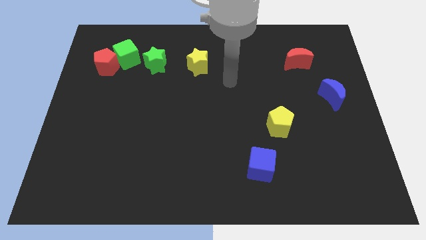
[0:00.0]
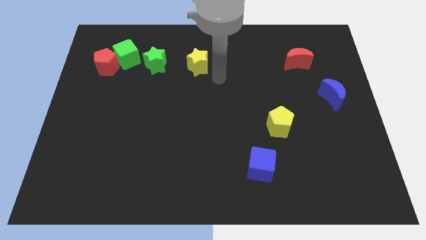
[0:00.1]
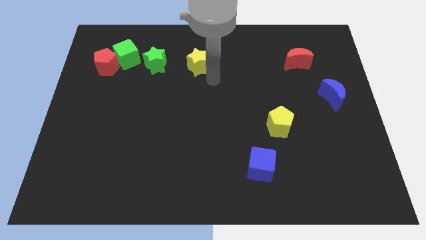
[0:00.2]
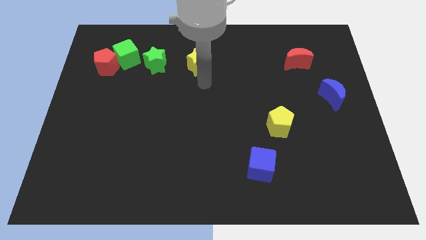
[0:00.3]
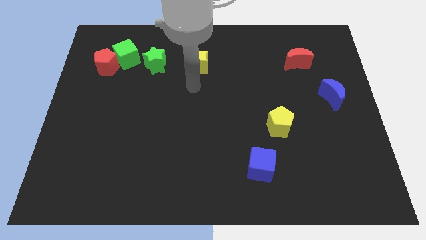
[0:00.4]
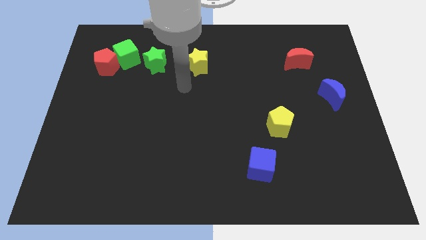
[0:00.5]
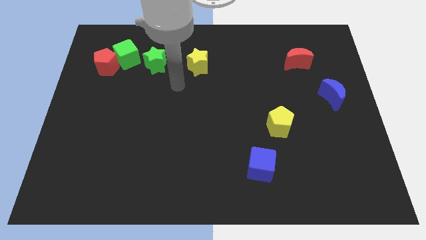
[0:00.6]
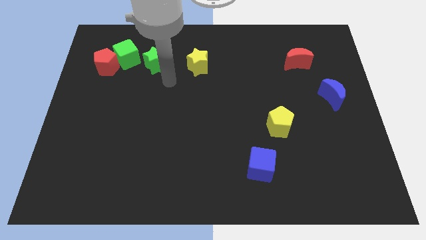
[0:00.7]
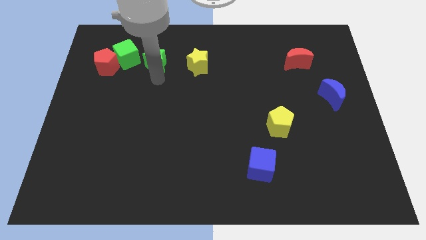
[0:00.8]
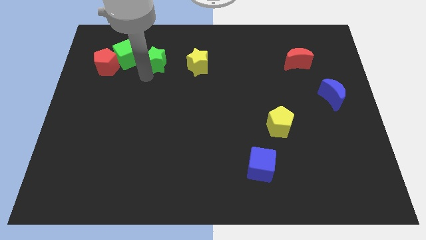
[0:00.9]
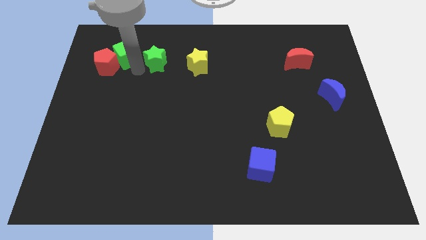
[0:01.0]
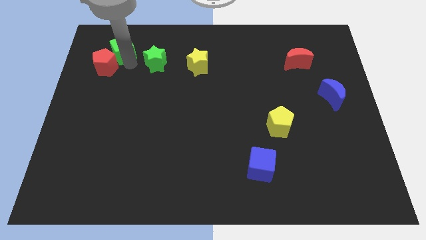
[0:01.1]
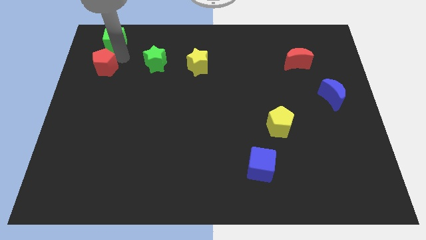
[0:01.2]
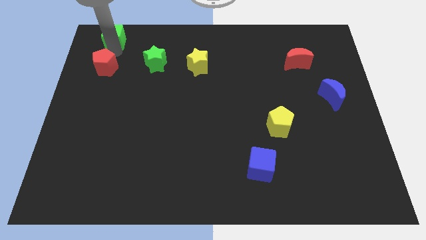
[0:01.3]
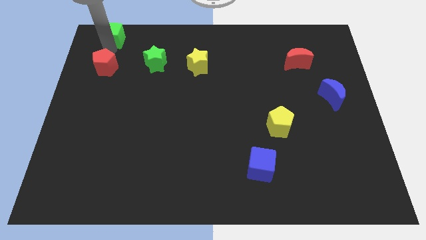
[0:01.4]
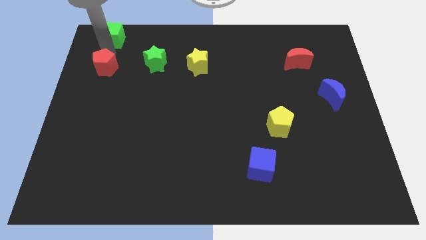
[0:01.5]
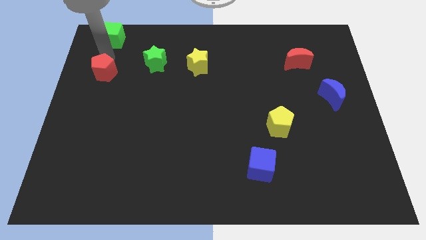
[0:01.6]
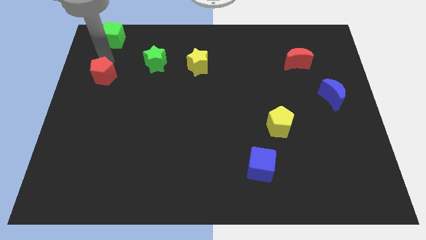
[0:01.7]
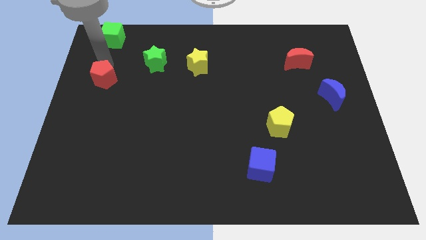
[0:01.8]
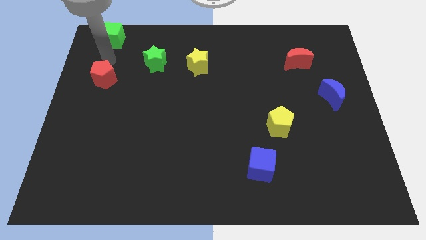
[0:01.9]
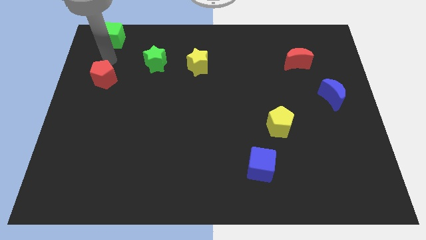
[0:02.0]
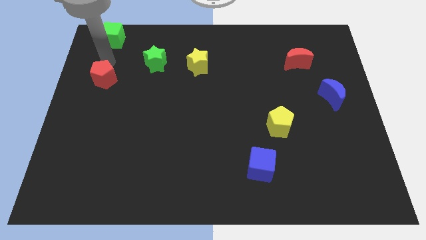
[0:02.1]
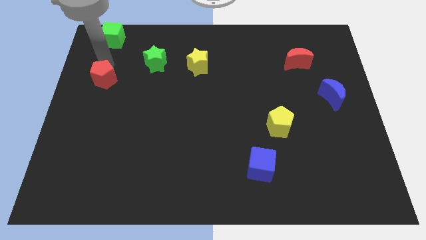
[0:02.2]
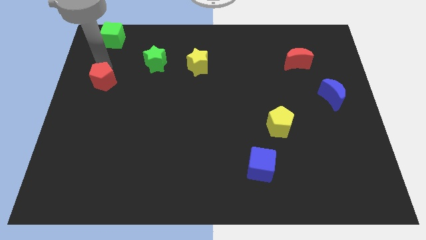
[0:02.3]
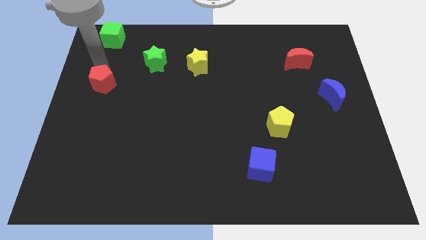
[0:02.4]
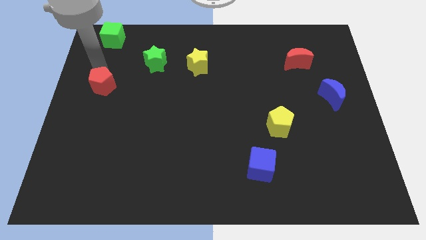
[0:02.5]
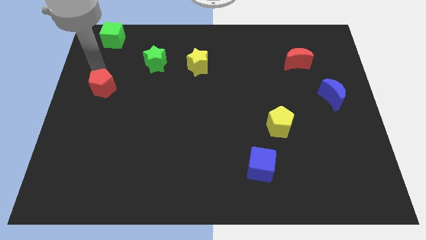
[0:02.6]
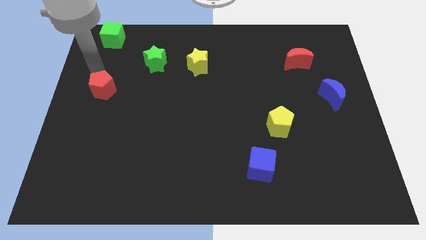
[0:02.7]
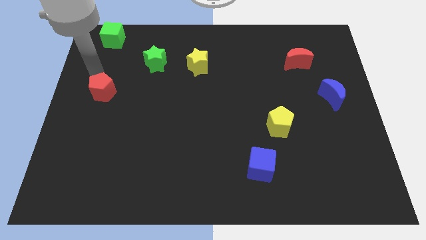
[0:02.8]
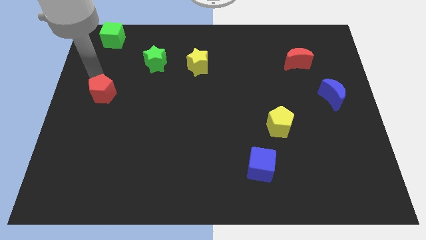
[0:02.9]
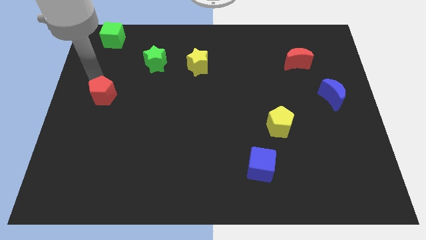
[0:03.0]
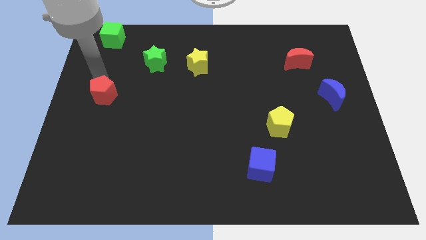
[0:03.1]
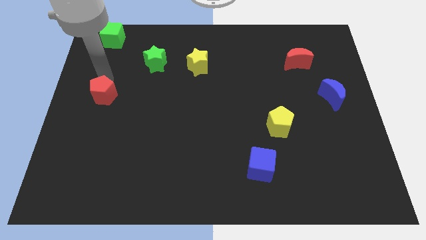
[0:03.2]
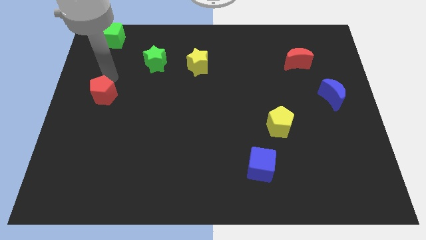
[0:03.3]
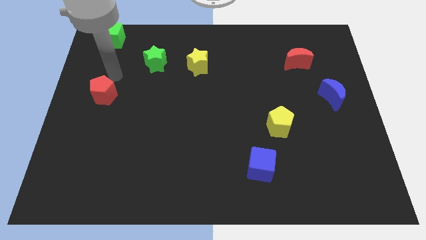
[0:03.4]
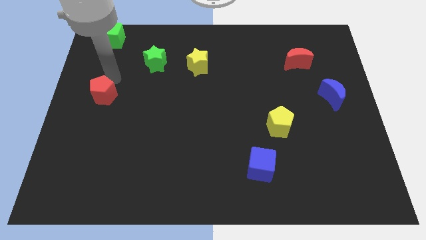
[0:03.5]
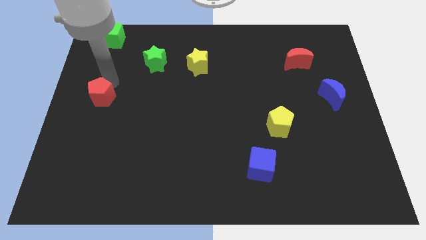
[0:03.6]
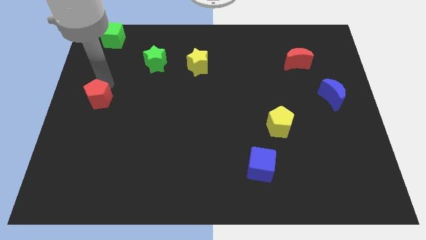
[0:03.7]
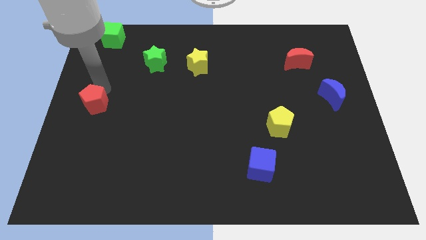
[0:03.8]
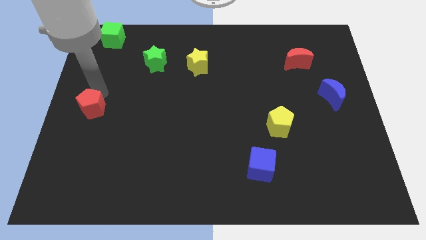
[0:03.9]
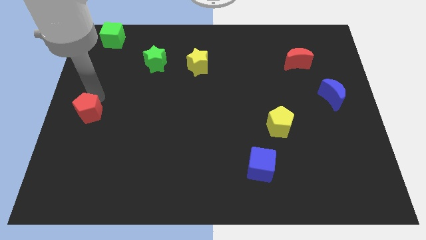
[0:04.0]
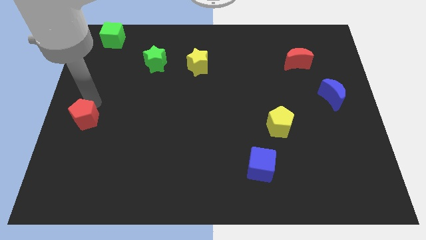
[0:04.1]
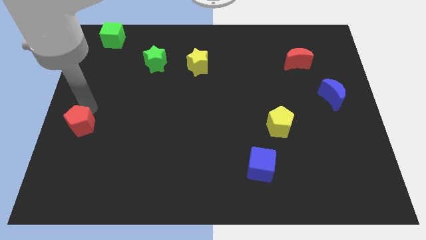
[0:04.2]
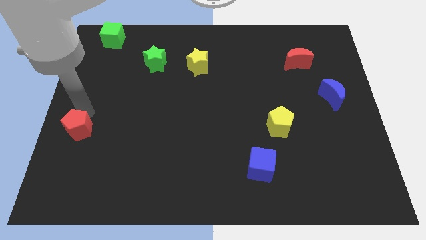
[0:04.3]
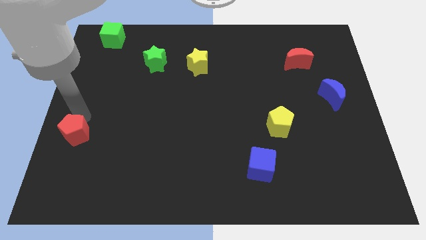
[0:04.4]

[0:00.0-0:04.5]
push the red pentagon down

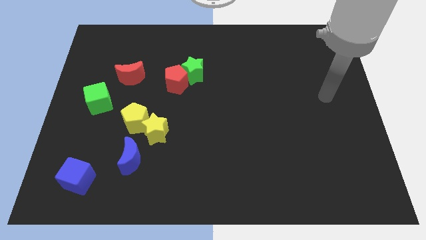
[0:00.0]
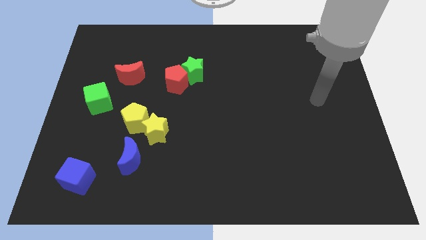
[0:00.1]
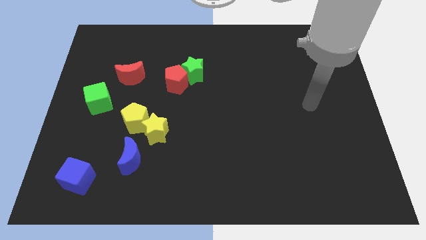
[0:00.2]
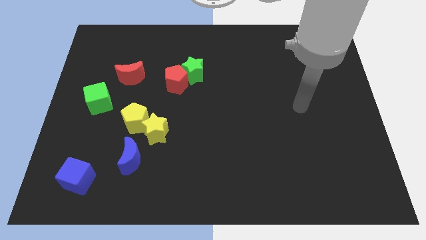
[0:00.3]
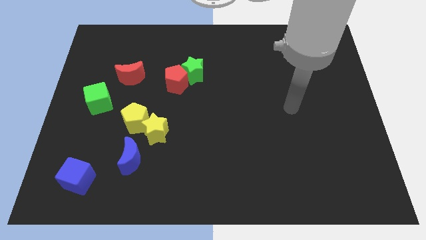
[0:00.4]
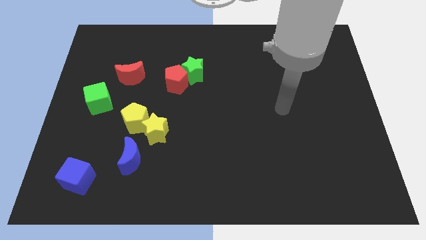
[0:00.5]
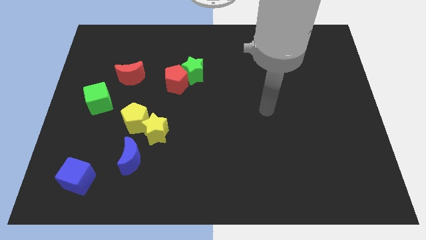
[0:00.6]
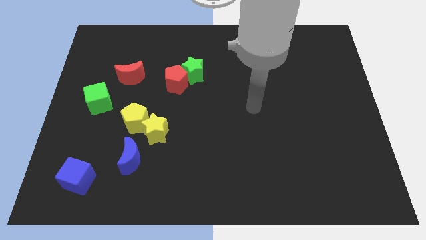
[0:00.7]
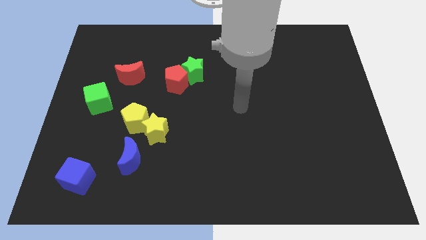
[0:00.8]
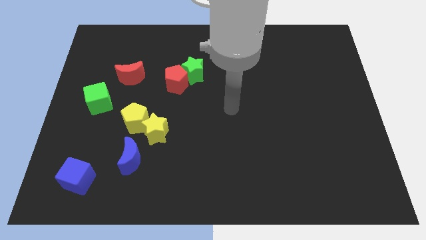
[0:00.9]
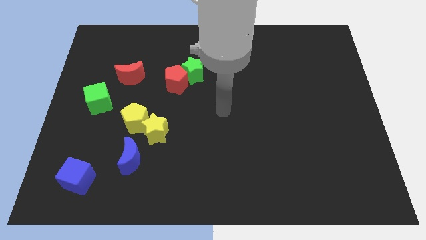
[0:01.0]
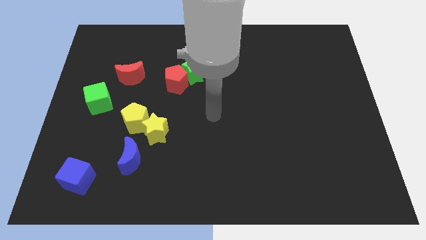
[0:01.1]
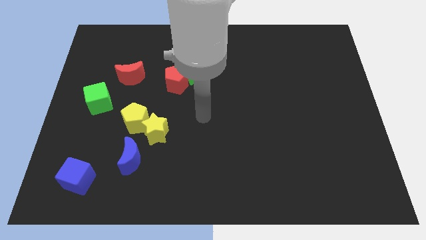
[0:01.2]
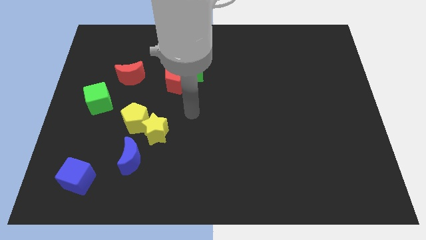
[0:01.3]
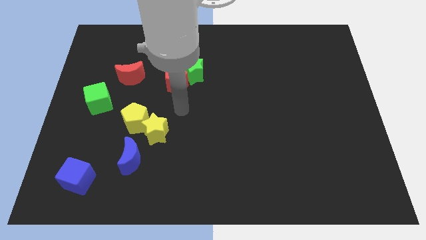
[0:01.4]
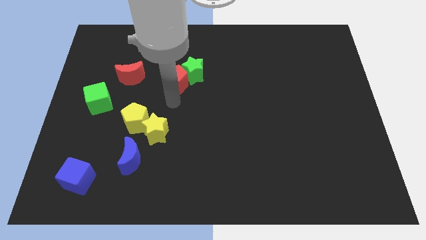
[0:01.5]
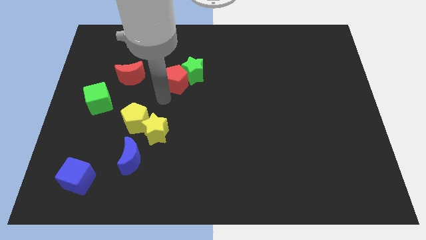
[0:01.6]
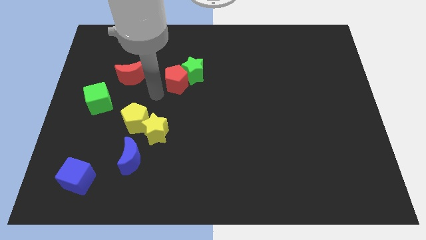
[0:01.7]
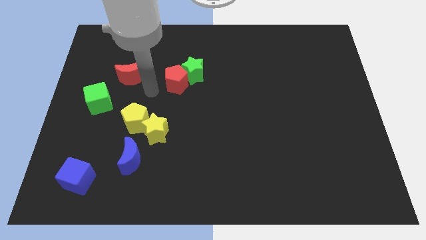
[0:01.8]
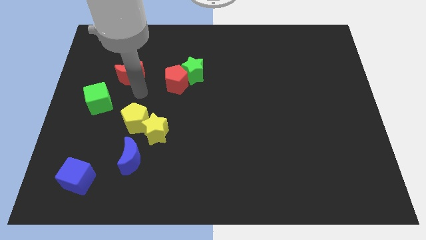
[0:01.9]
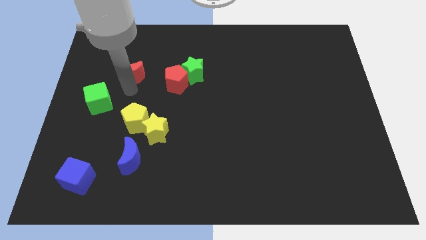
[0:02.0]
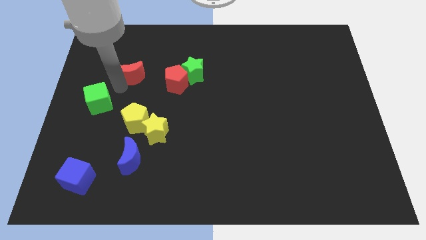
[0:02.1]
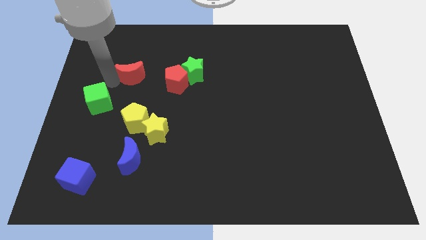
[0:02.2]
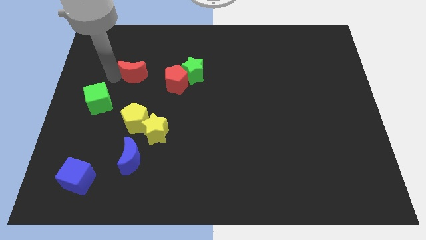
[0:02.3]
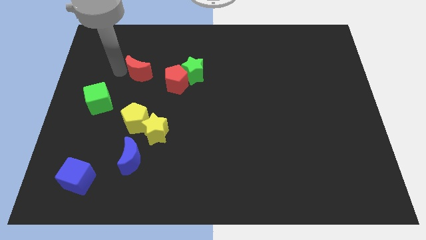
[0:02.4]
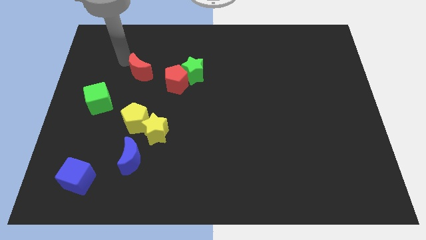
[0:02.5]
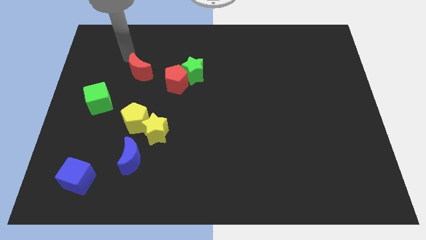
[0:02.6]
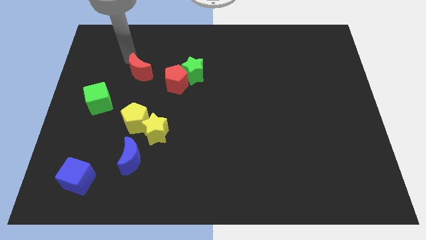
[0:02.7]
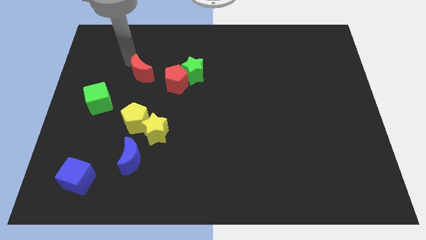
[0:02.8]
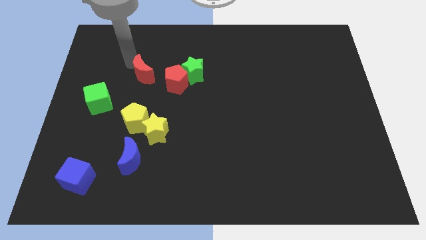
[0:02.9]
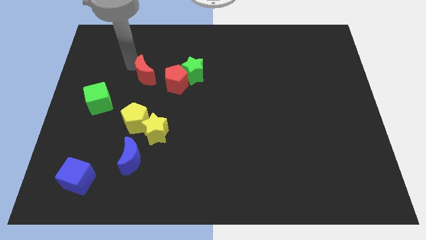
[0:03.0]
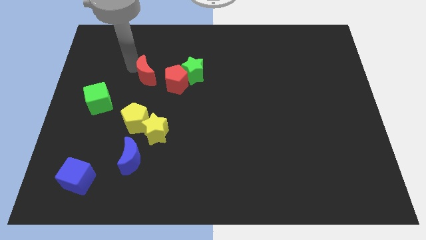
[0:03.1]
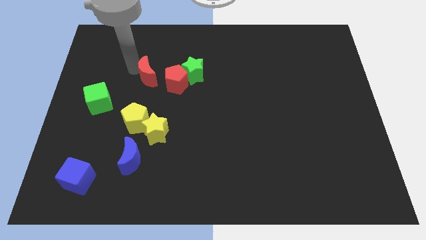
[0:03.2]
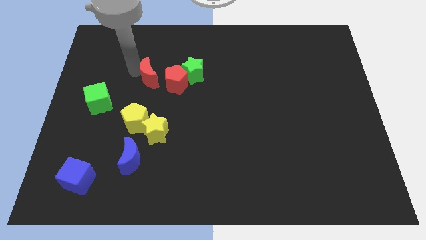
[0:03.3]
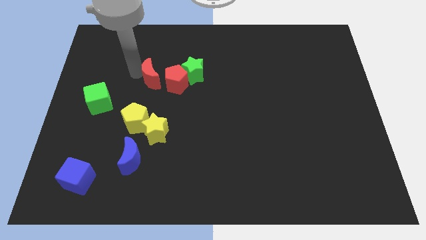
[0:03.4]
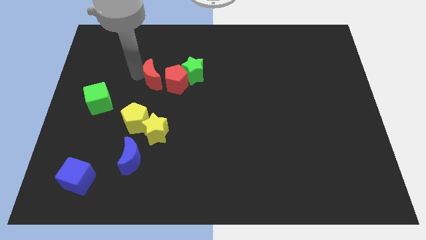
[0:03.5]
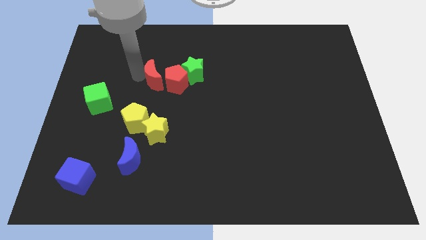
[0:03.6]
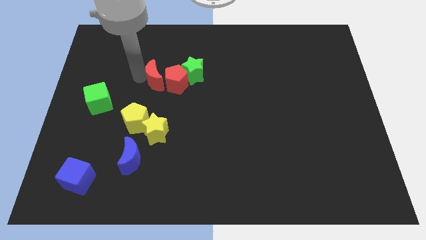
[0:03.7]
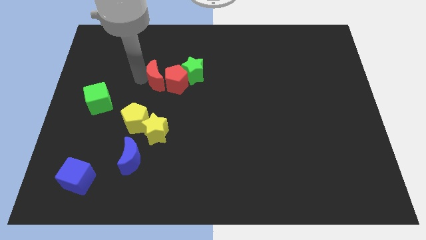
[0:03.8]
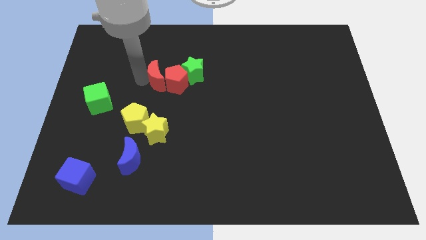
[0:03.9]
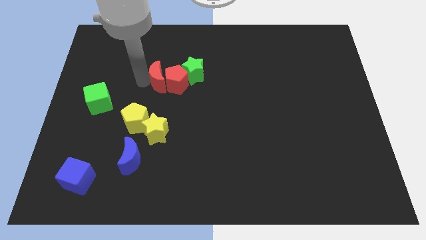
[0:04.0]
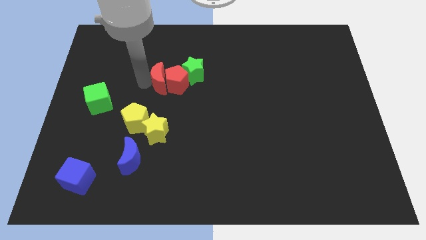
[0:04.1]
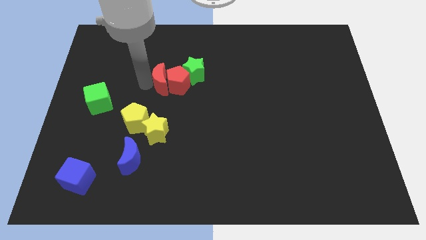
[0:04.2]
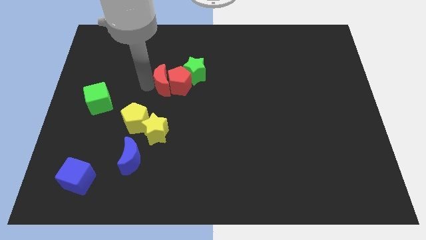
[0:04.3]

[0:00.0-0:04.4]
slide the red moon somewhat downwards and to the right
